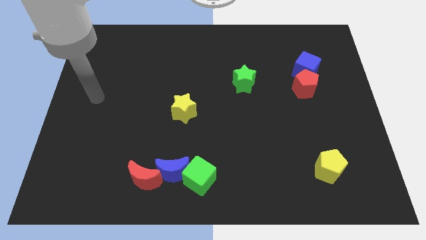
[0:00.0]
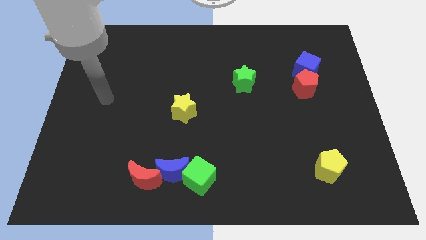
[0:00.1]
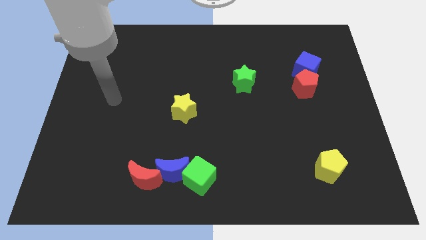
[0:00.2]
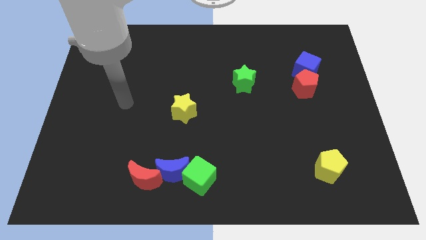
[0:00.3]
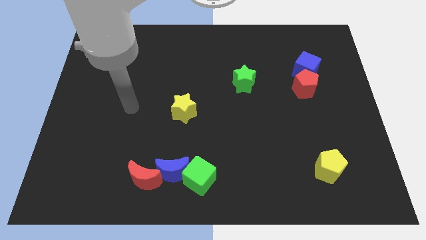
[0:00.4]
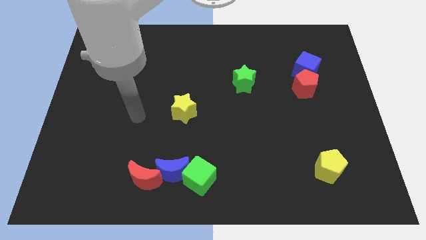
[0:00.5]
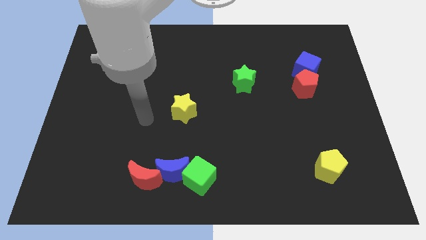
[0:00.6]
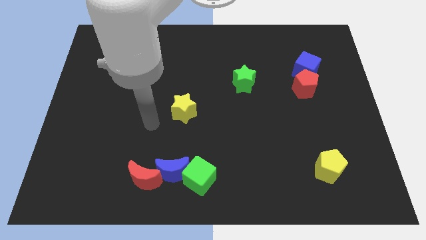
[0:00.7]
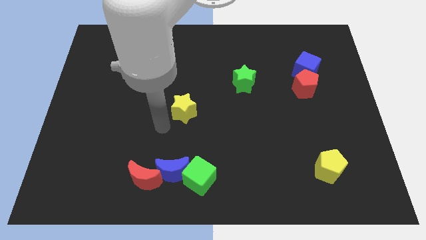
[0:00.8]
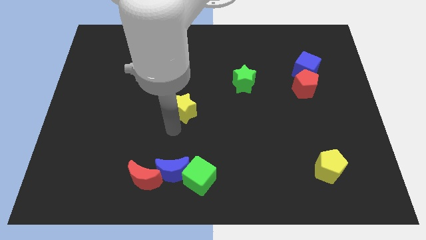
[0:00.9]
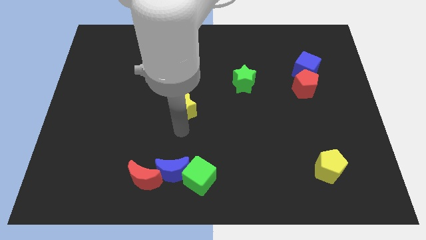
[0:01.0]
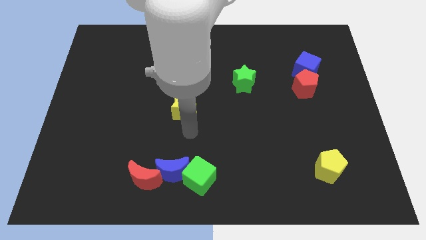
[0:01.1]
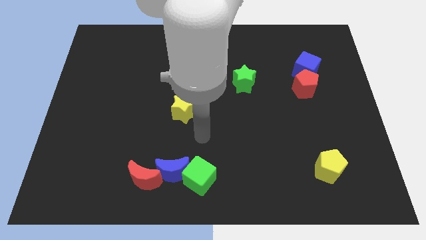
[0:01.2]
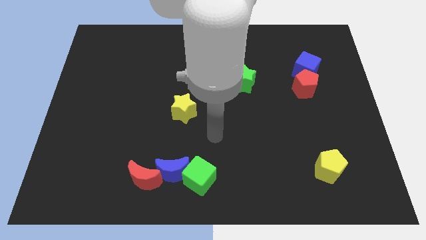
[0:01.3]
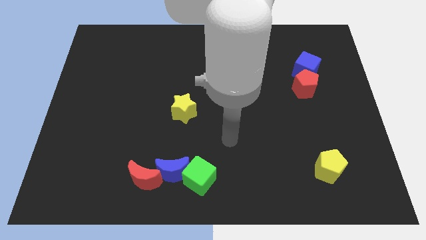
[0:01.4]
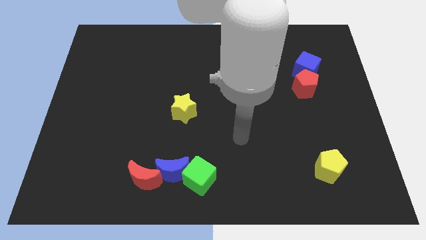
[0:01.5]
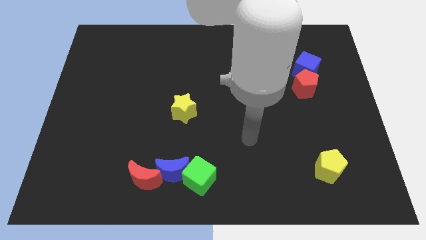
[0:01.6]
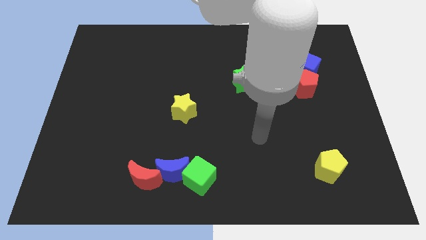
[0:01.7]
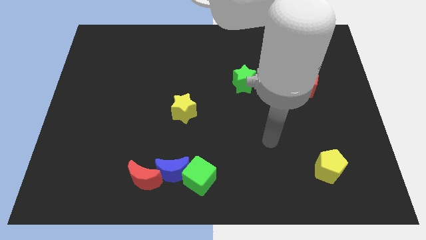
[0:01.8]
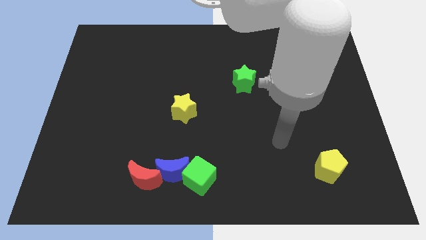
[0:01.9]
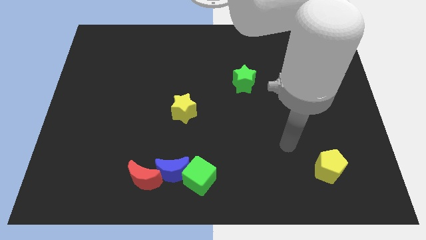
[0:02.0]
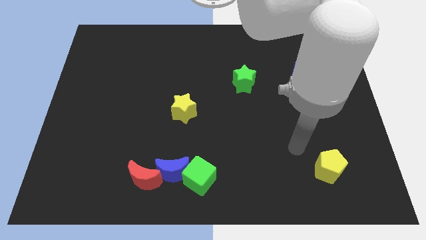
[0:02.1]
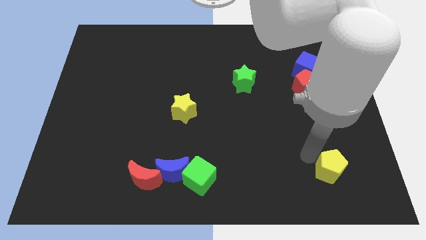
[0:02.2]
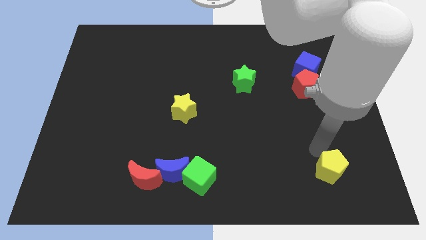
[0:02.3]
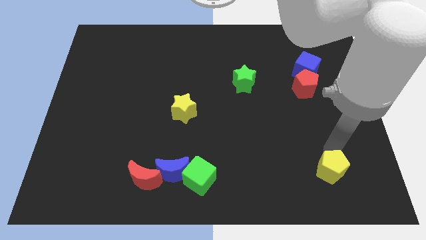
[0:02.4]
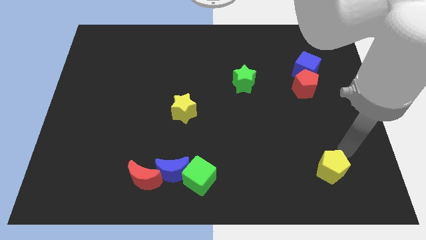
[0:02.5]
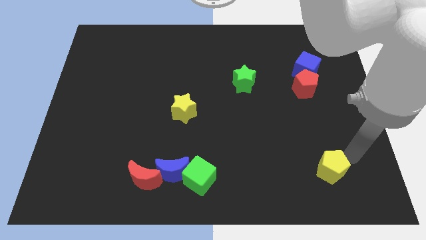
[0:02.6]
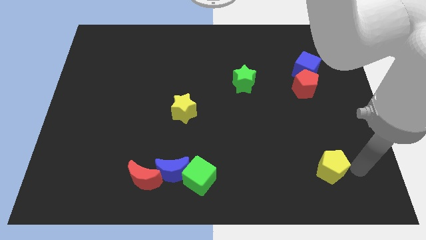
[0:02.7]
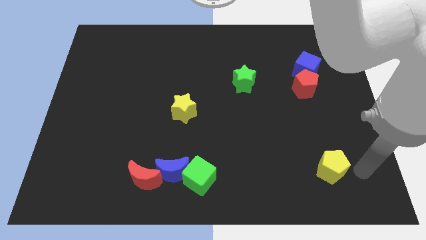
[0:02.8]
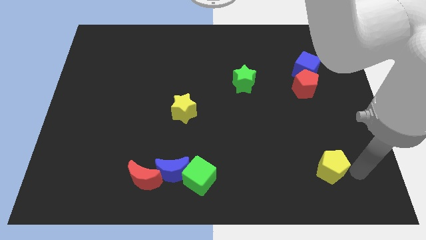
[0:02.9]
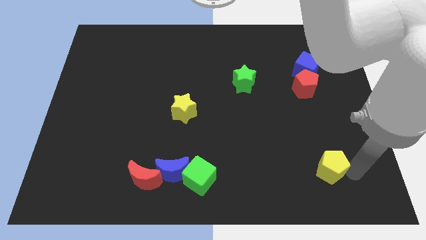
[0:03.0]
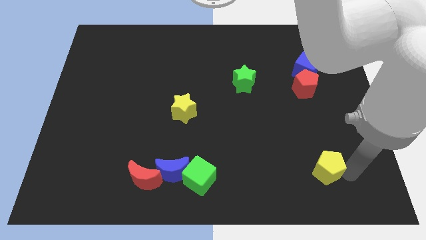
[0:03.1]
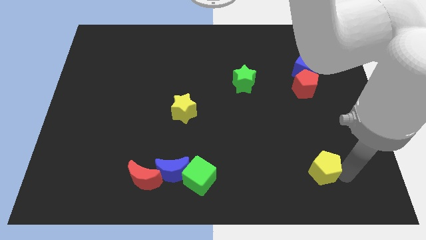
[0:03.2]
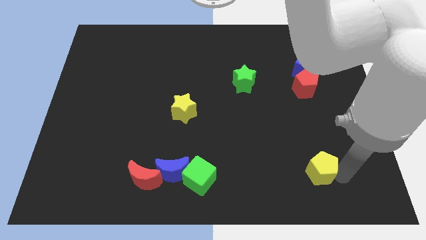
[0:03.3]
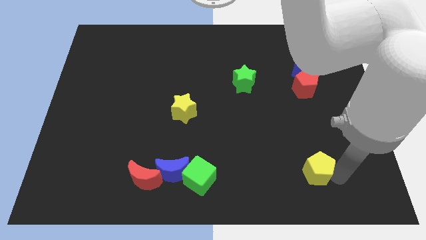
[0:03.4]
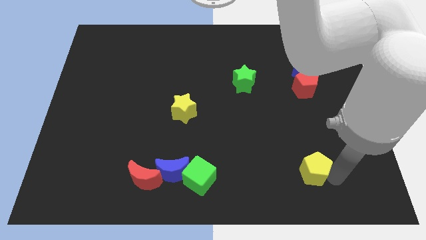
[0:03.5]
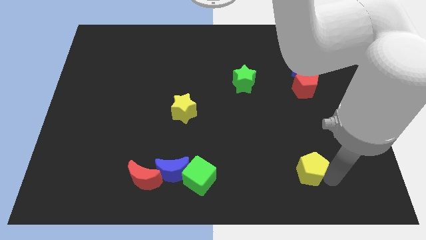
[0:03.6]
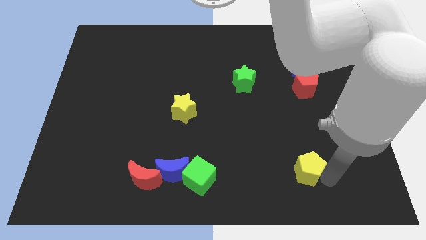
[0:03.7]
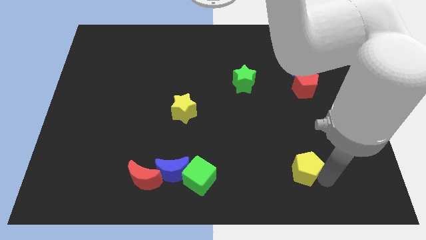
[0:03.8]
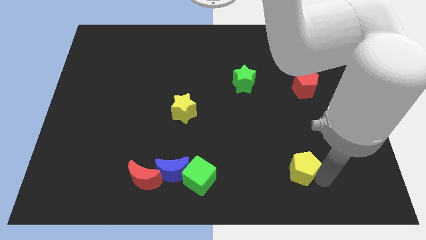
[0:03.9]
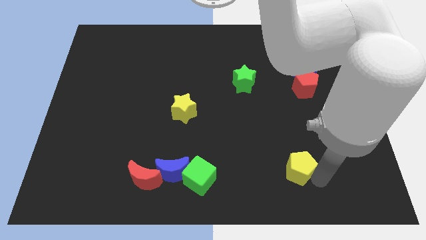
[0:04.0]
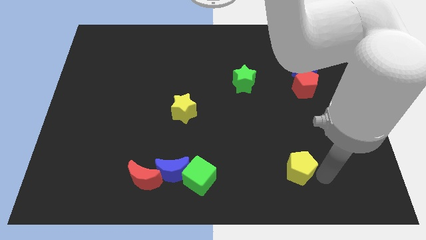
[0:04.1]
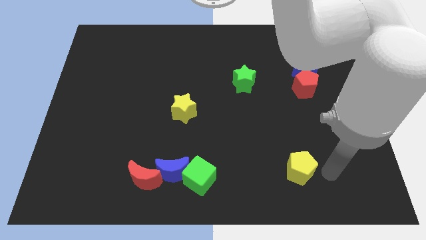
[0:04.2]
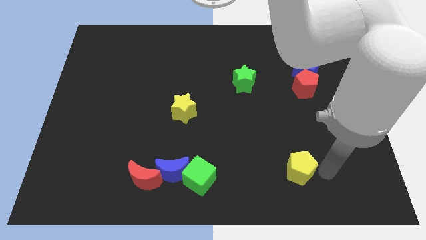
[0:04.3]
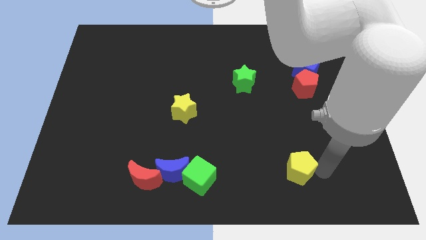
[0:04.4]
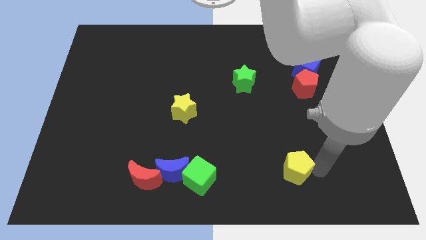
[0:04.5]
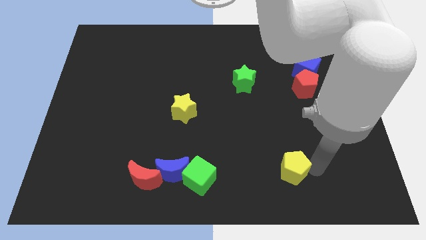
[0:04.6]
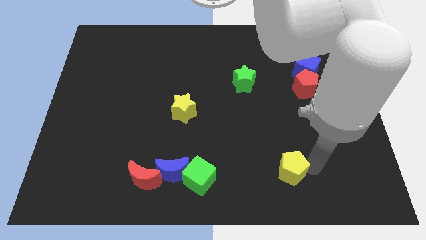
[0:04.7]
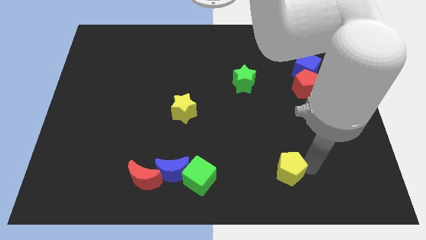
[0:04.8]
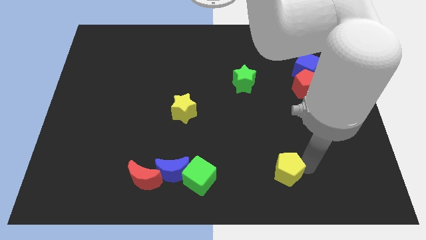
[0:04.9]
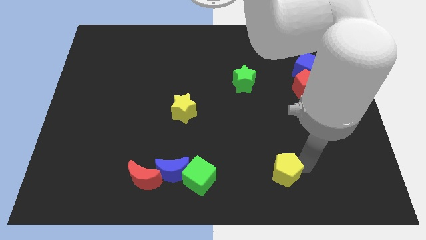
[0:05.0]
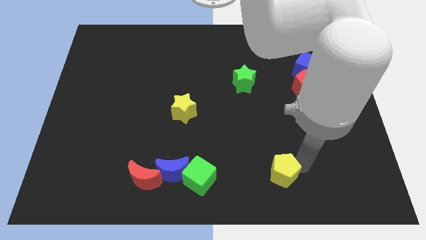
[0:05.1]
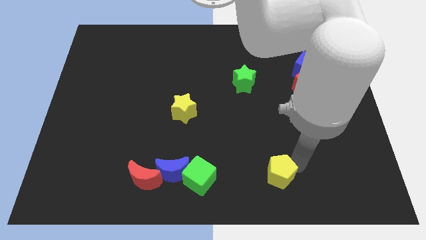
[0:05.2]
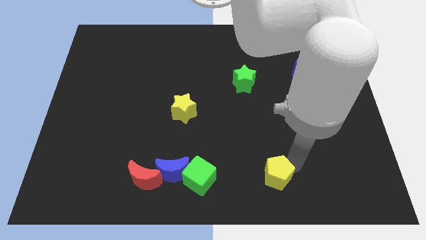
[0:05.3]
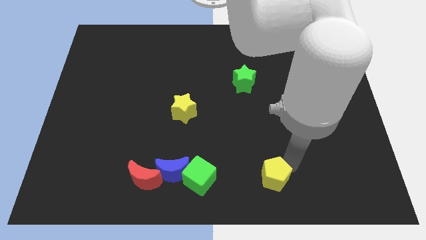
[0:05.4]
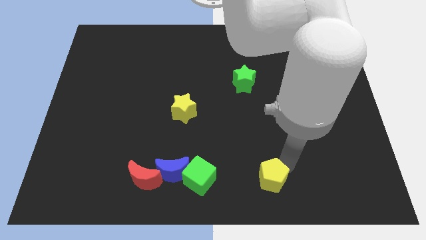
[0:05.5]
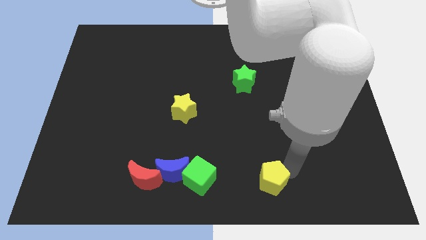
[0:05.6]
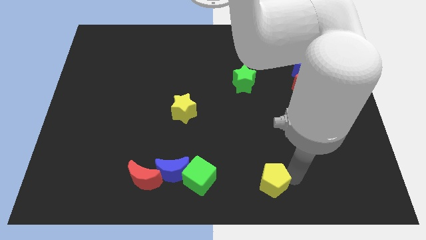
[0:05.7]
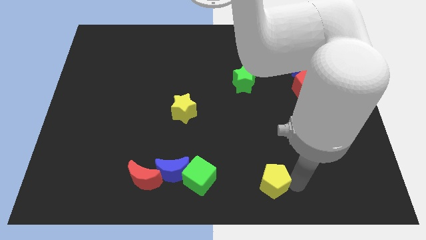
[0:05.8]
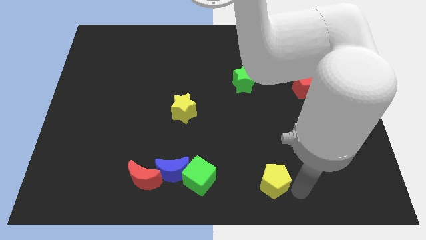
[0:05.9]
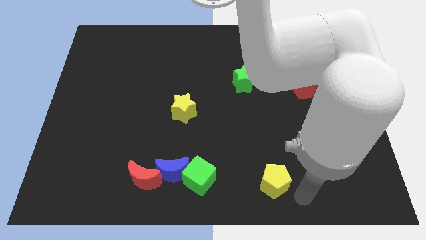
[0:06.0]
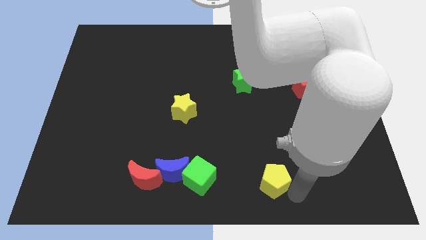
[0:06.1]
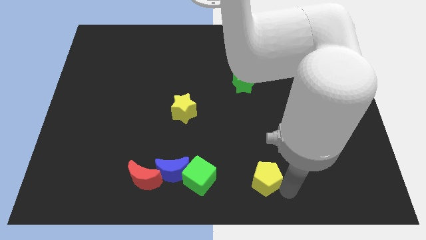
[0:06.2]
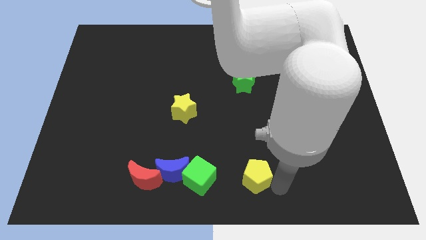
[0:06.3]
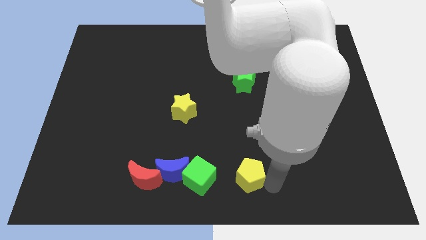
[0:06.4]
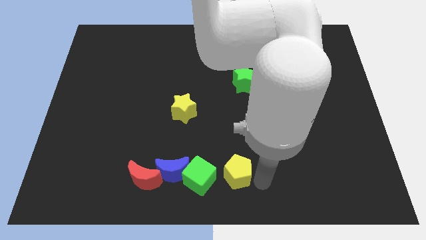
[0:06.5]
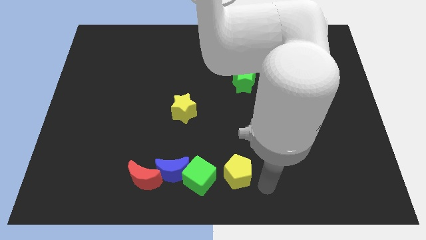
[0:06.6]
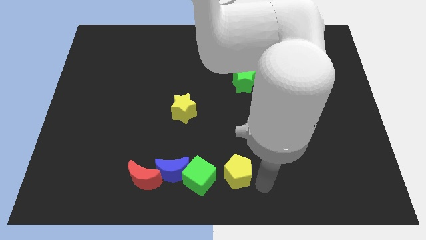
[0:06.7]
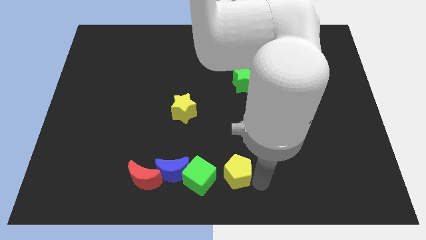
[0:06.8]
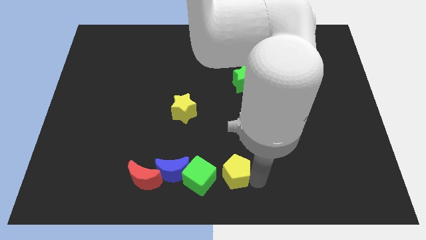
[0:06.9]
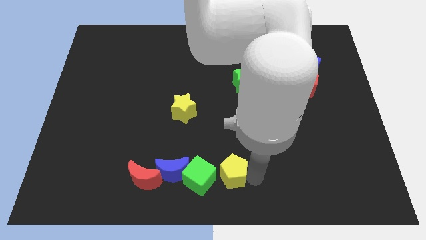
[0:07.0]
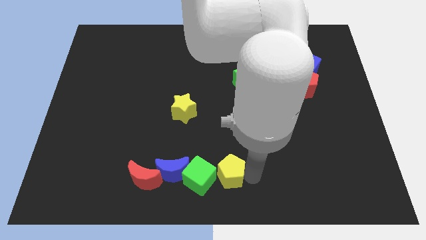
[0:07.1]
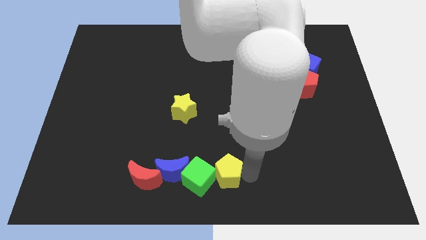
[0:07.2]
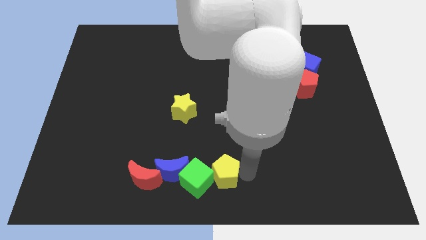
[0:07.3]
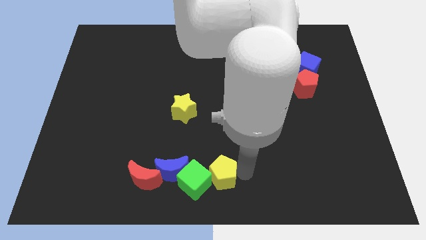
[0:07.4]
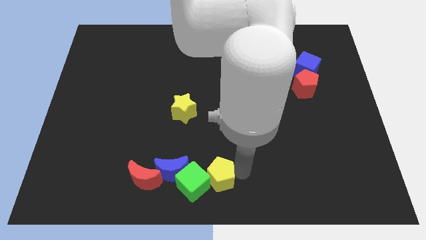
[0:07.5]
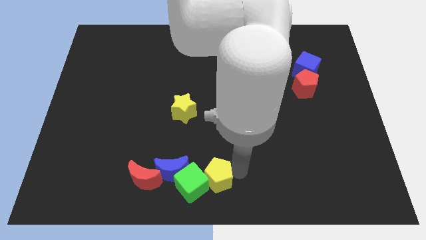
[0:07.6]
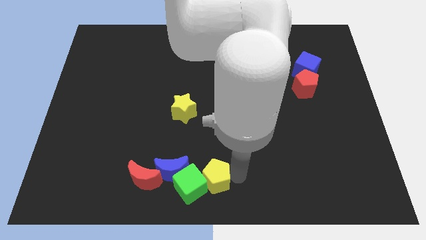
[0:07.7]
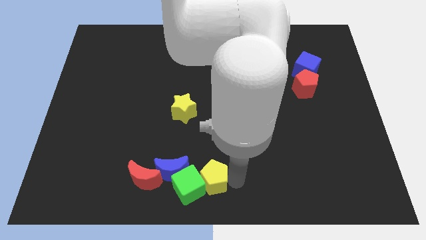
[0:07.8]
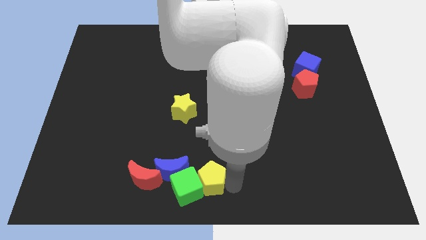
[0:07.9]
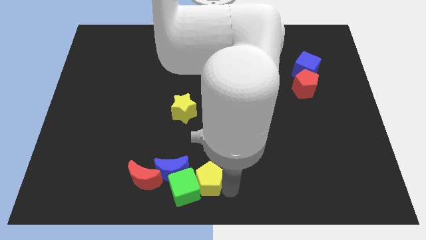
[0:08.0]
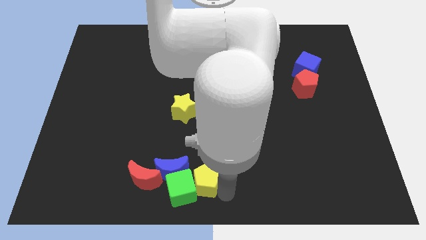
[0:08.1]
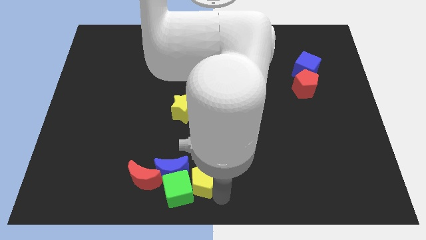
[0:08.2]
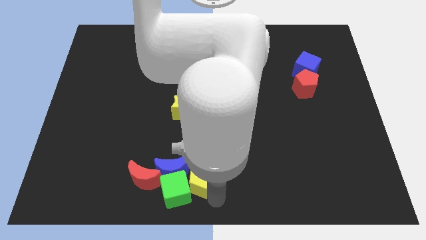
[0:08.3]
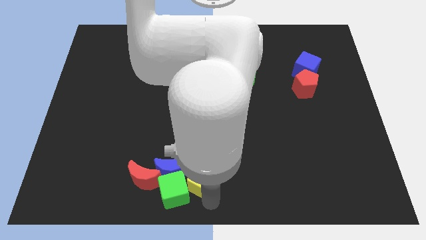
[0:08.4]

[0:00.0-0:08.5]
slide the yellow pentagon towards the blue moon
